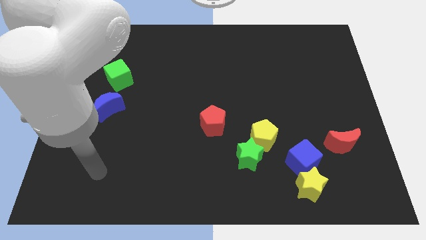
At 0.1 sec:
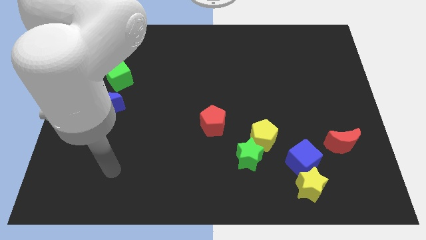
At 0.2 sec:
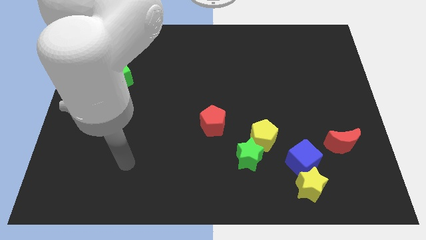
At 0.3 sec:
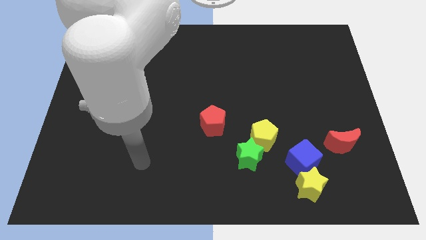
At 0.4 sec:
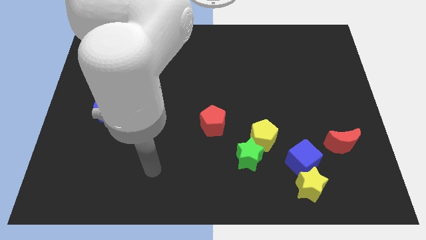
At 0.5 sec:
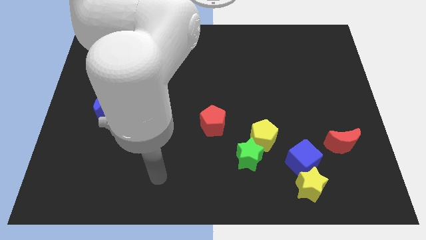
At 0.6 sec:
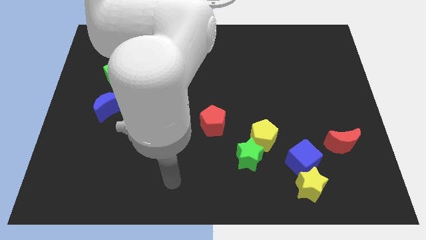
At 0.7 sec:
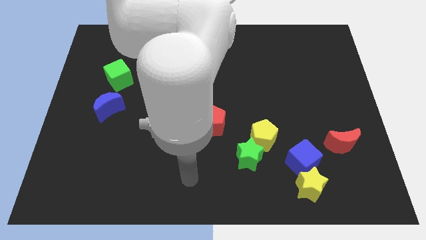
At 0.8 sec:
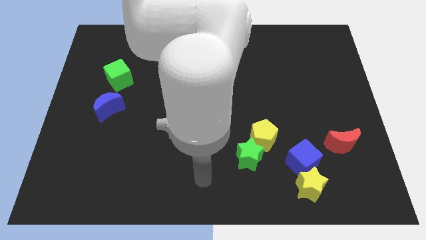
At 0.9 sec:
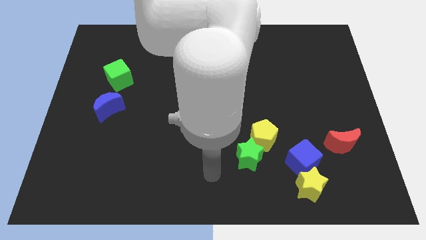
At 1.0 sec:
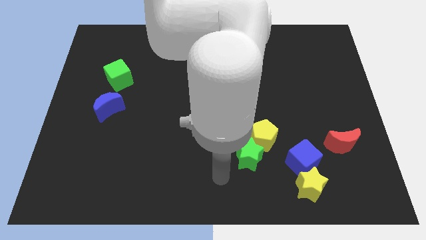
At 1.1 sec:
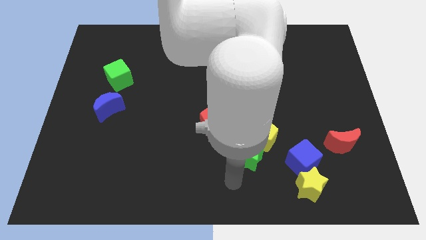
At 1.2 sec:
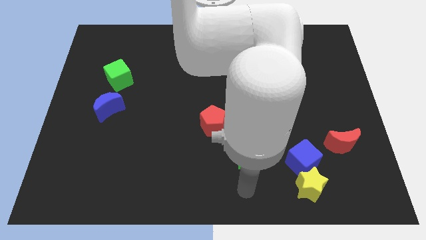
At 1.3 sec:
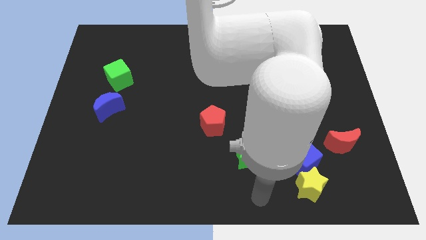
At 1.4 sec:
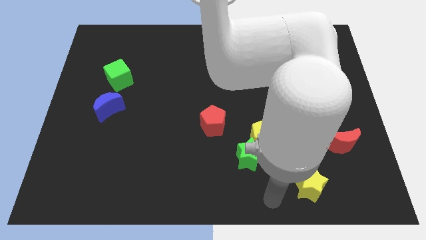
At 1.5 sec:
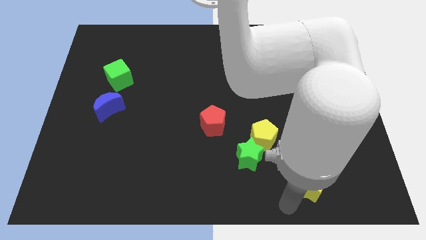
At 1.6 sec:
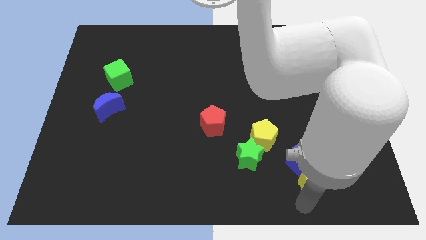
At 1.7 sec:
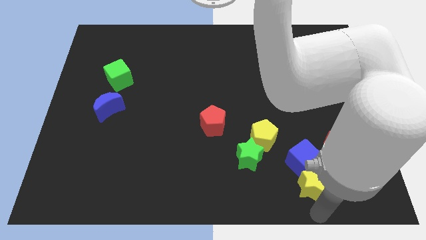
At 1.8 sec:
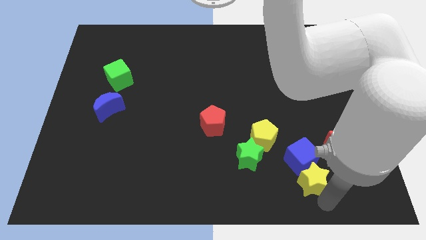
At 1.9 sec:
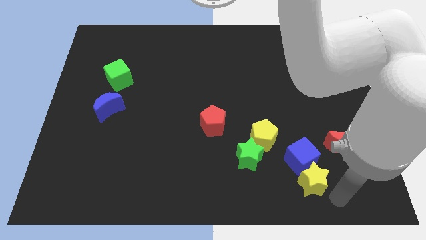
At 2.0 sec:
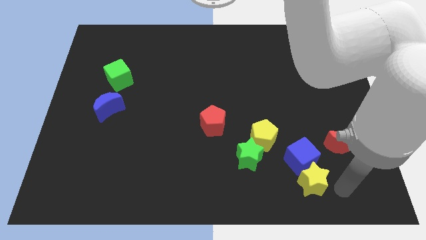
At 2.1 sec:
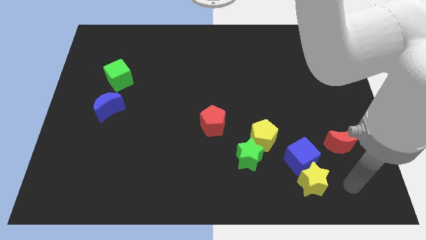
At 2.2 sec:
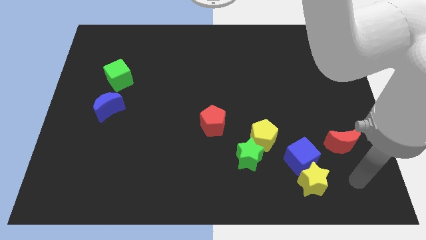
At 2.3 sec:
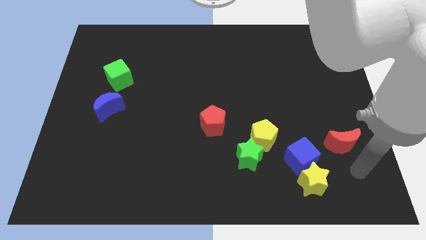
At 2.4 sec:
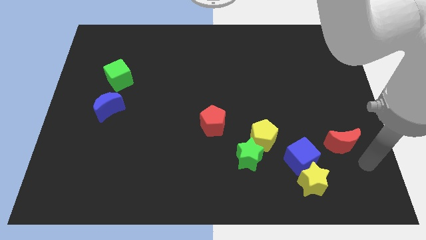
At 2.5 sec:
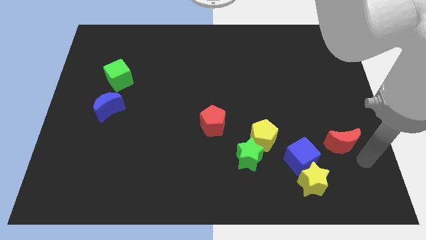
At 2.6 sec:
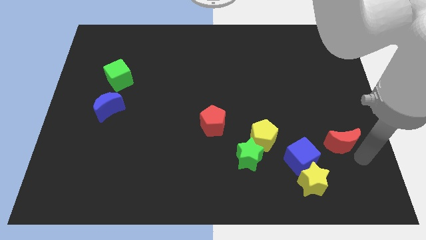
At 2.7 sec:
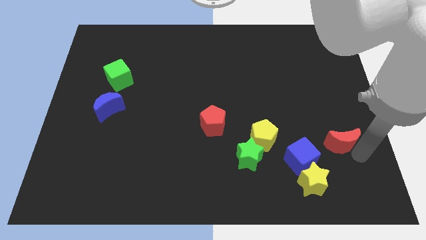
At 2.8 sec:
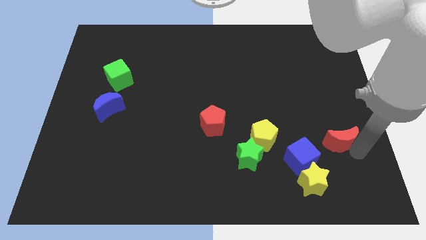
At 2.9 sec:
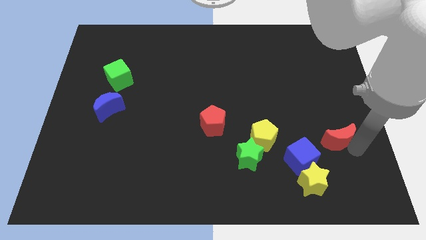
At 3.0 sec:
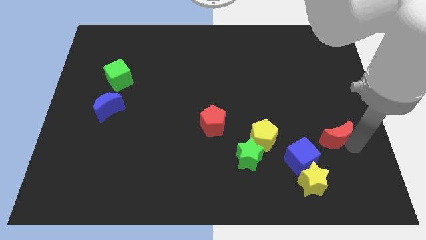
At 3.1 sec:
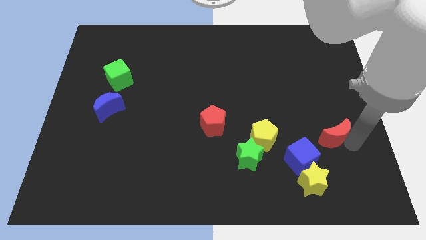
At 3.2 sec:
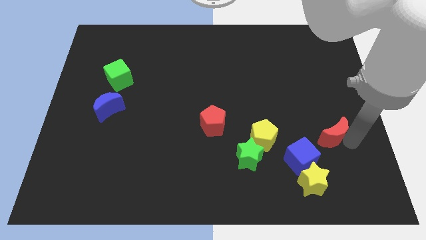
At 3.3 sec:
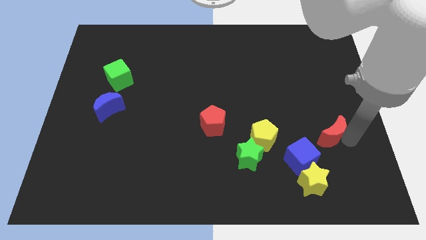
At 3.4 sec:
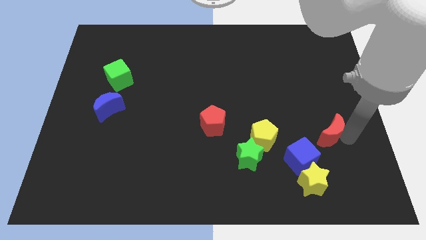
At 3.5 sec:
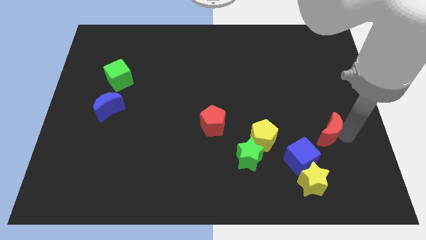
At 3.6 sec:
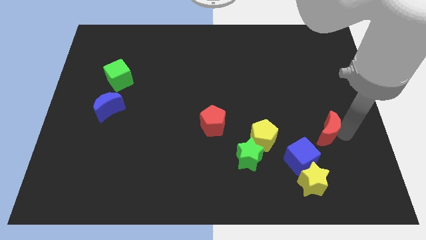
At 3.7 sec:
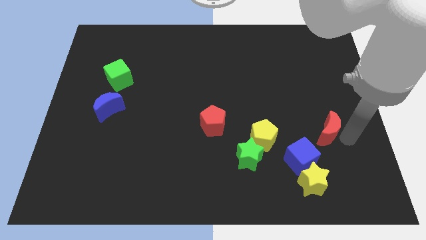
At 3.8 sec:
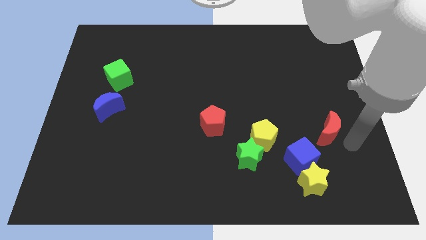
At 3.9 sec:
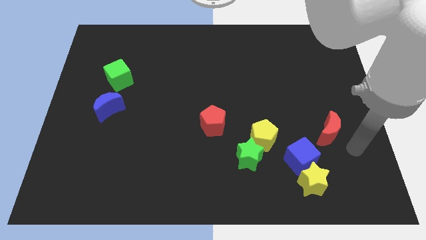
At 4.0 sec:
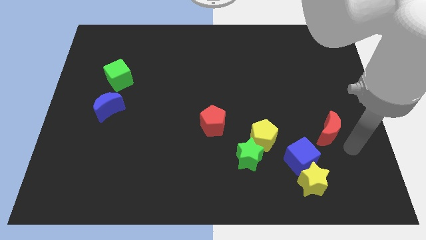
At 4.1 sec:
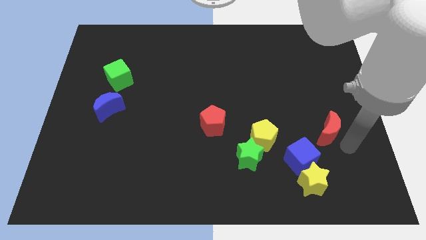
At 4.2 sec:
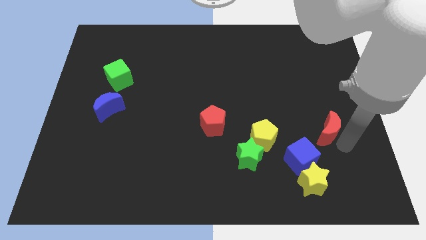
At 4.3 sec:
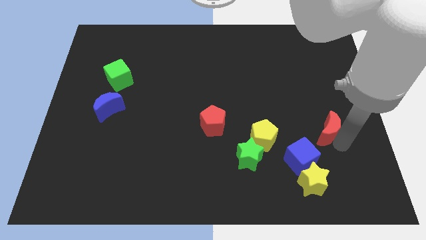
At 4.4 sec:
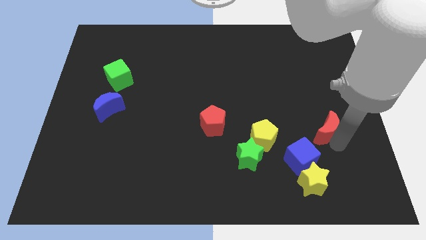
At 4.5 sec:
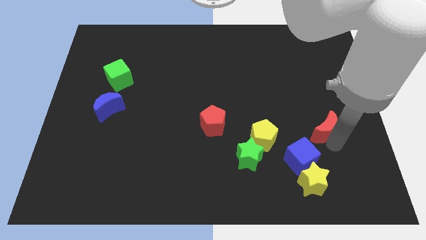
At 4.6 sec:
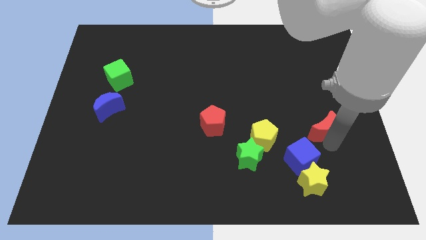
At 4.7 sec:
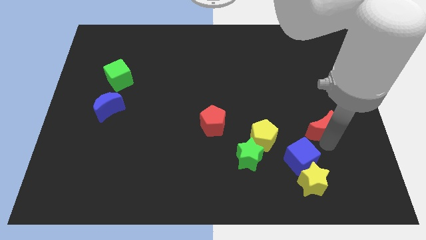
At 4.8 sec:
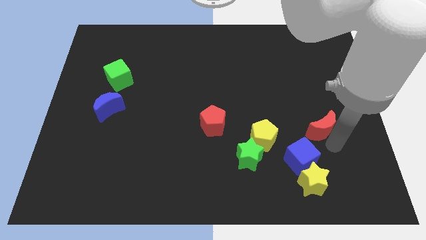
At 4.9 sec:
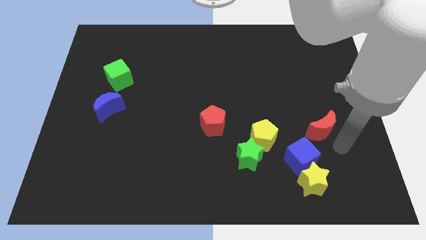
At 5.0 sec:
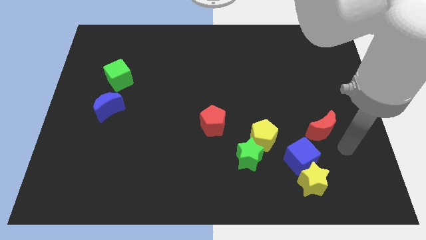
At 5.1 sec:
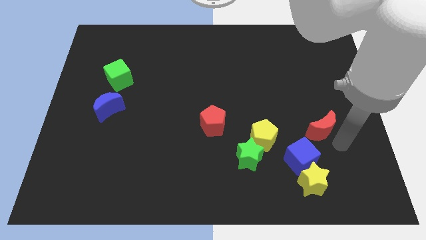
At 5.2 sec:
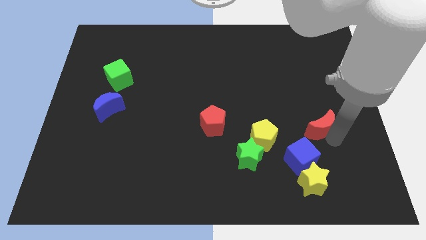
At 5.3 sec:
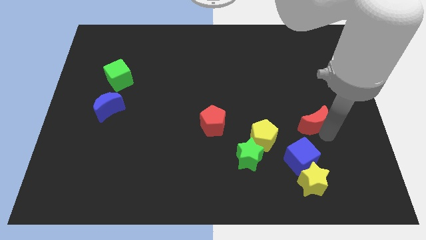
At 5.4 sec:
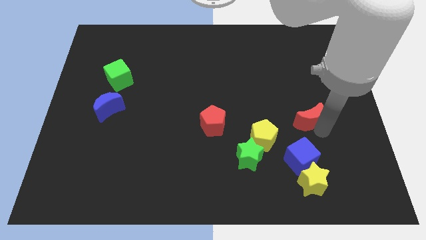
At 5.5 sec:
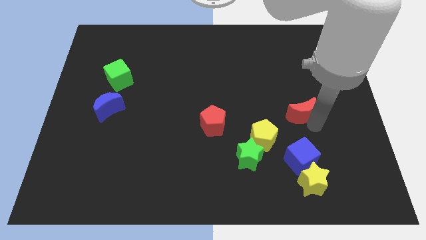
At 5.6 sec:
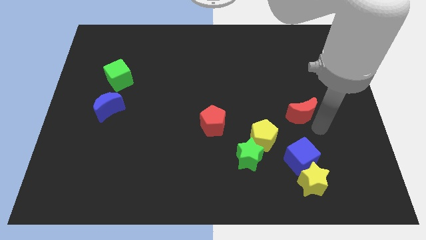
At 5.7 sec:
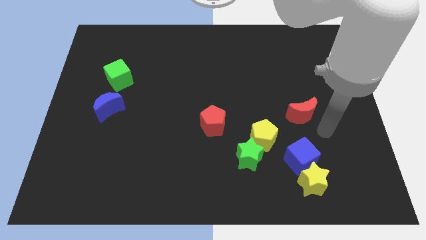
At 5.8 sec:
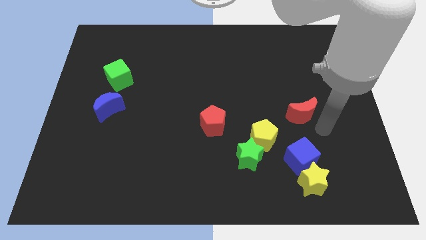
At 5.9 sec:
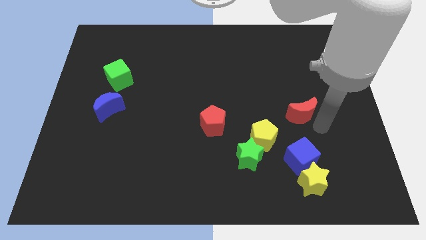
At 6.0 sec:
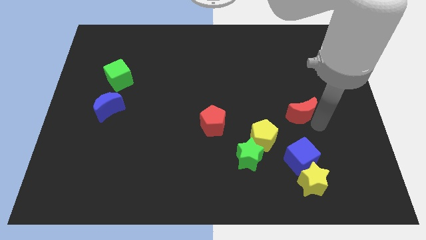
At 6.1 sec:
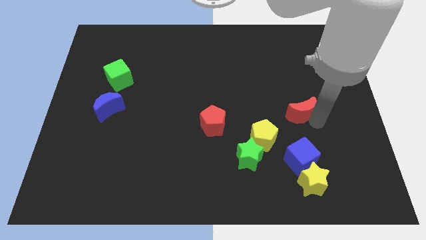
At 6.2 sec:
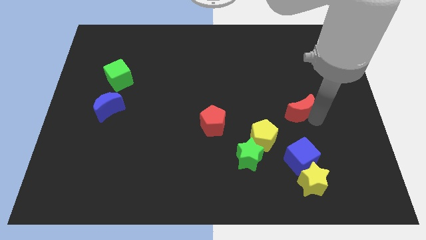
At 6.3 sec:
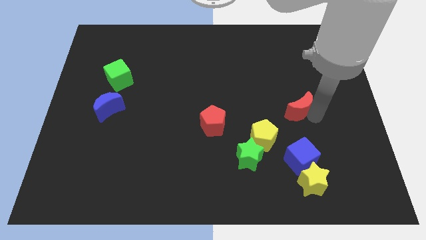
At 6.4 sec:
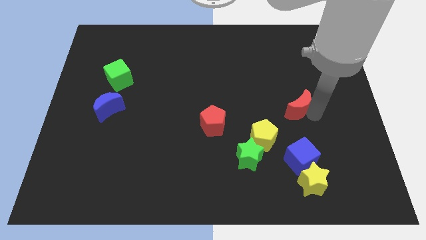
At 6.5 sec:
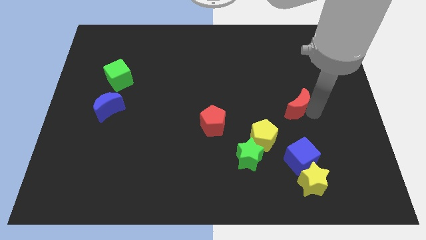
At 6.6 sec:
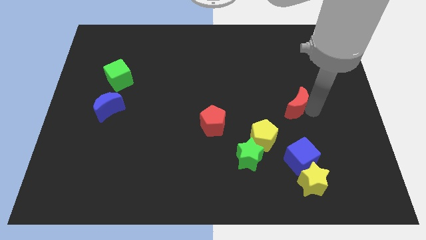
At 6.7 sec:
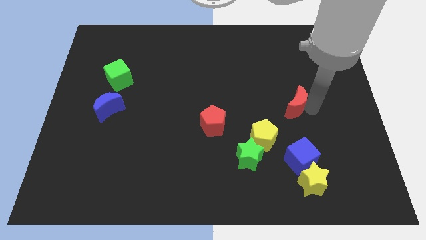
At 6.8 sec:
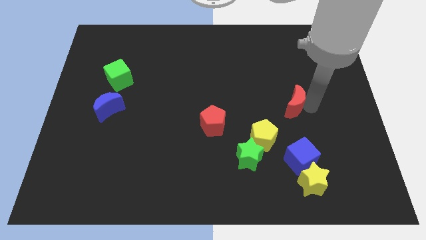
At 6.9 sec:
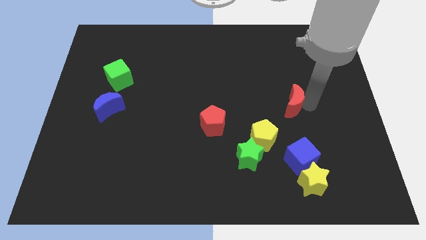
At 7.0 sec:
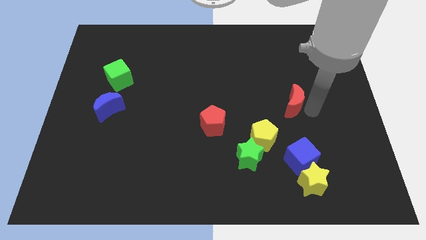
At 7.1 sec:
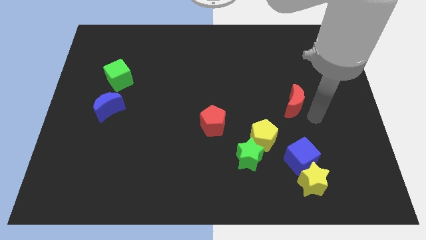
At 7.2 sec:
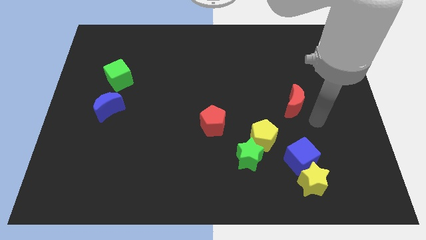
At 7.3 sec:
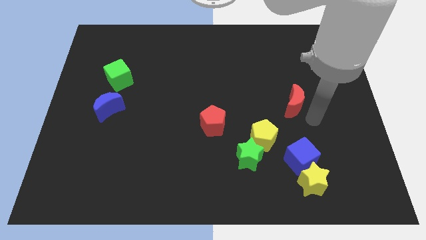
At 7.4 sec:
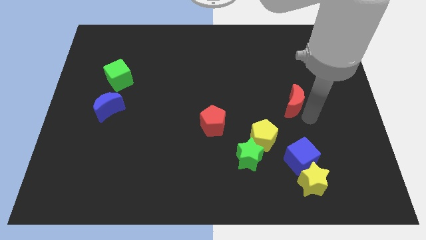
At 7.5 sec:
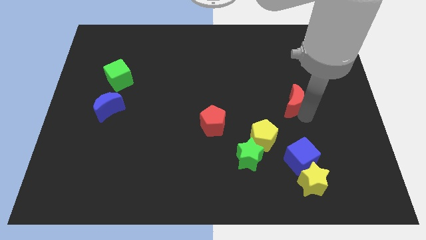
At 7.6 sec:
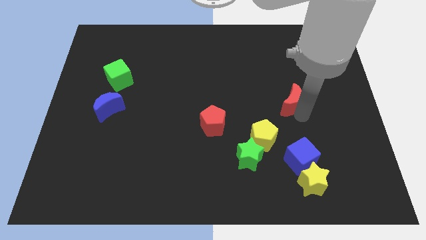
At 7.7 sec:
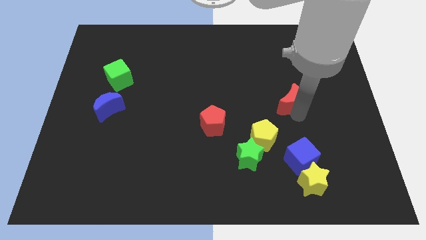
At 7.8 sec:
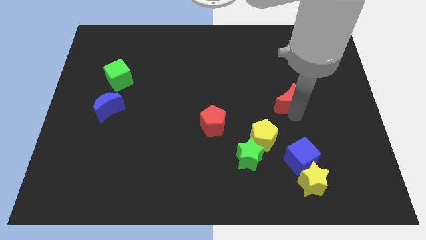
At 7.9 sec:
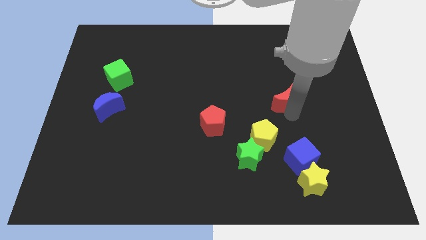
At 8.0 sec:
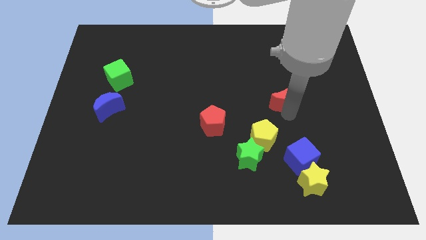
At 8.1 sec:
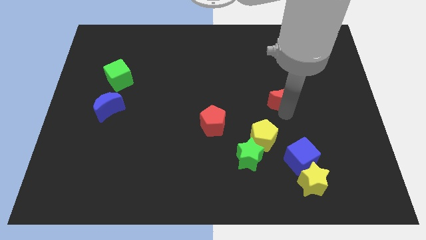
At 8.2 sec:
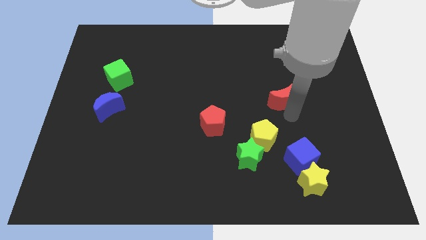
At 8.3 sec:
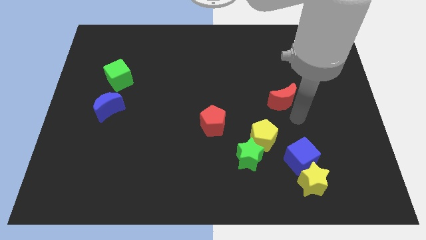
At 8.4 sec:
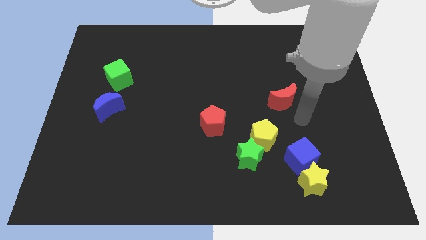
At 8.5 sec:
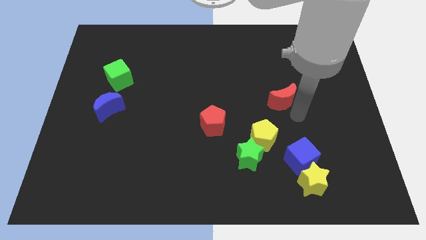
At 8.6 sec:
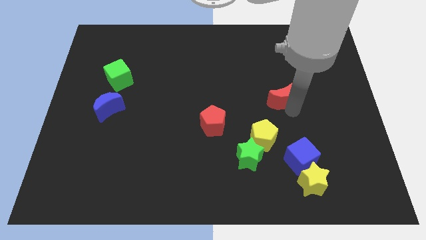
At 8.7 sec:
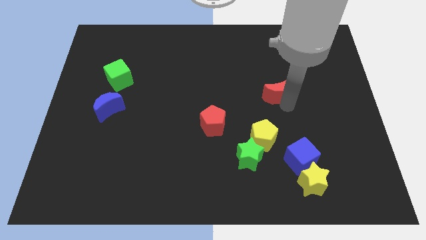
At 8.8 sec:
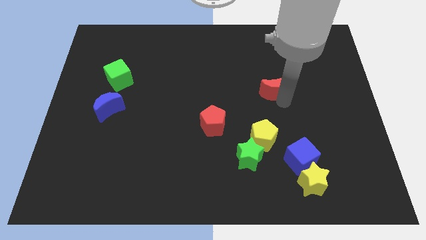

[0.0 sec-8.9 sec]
push the red moon up and then left
